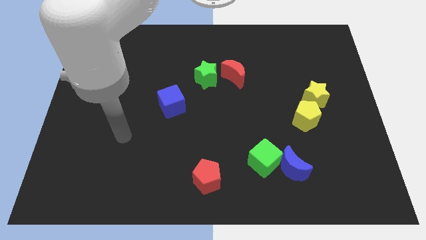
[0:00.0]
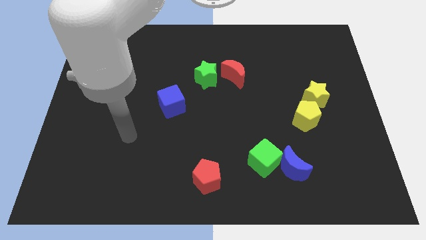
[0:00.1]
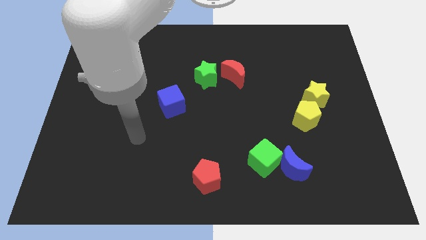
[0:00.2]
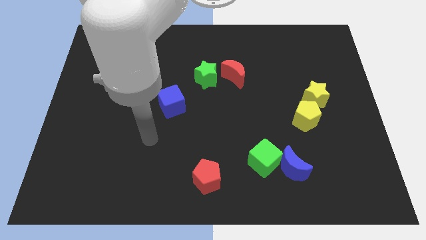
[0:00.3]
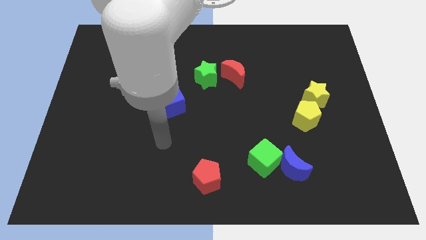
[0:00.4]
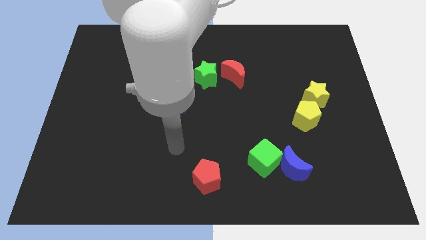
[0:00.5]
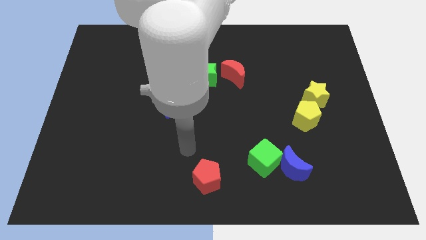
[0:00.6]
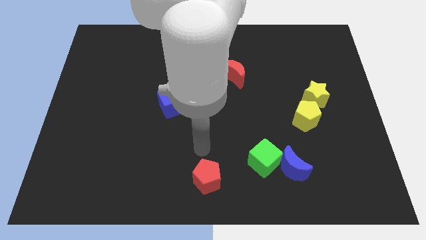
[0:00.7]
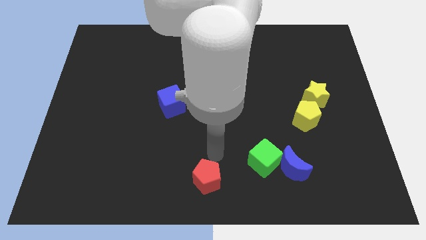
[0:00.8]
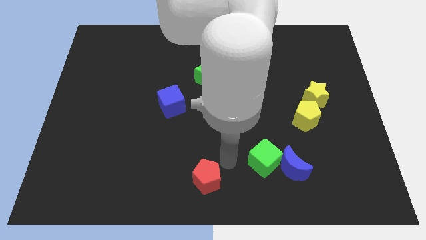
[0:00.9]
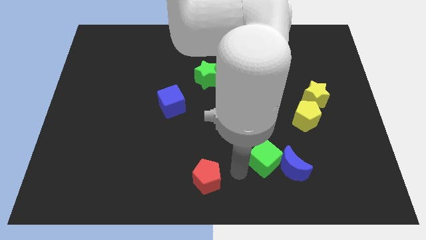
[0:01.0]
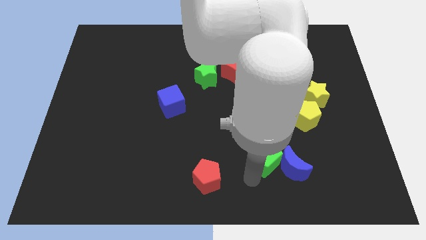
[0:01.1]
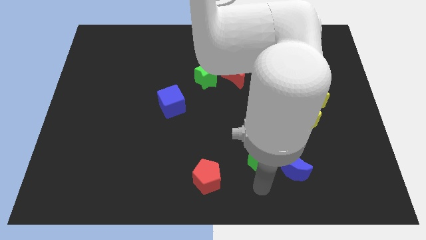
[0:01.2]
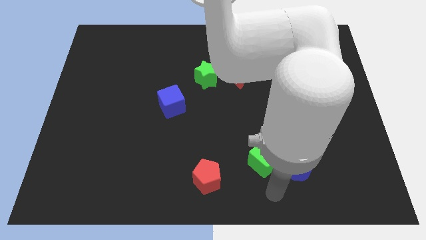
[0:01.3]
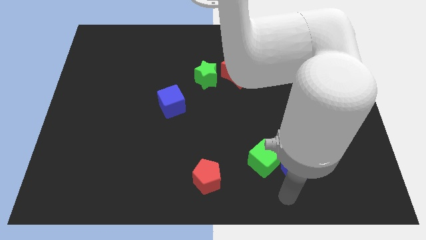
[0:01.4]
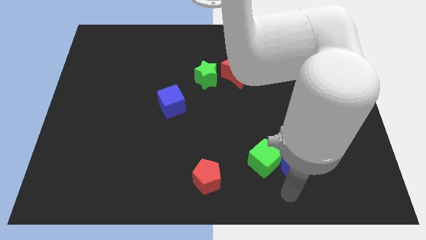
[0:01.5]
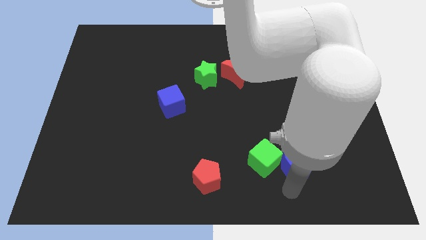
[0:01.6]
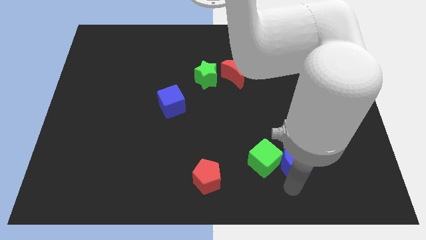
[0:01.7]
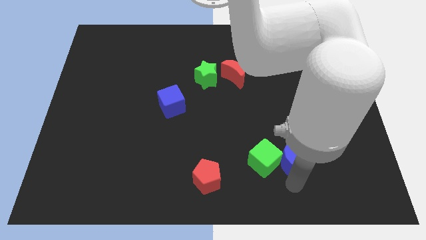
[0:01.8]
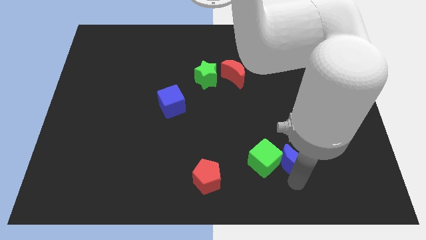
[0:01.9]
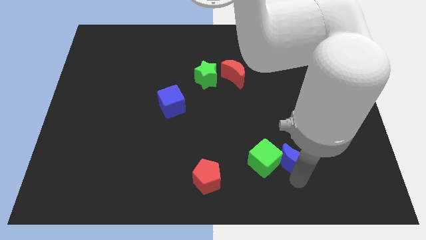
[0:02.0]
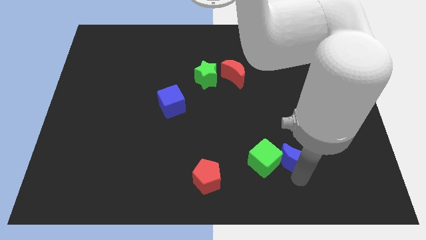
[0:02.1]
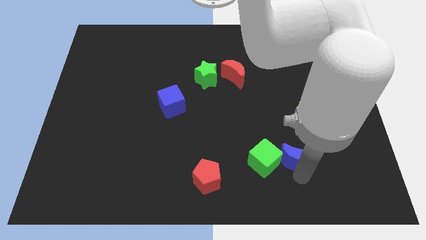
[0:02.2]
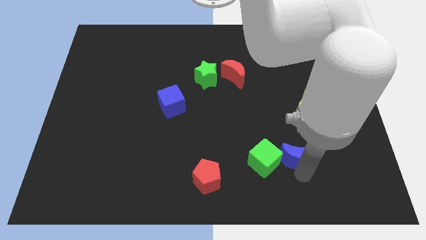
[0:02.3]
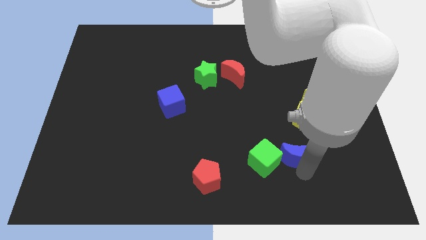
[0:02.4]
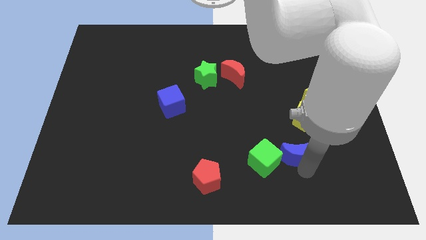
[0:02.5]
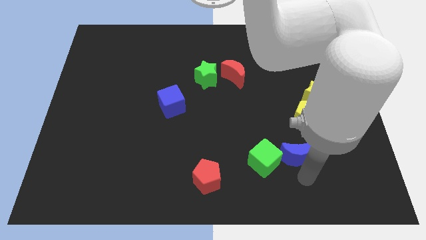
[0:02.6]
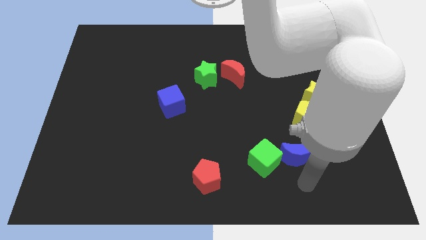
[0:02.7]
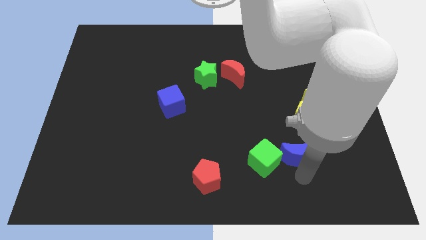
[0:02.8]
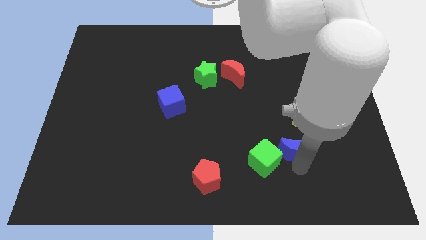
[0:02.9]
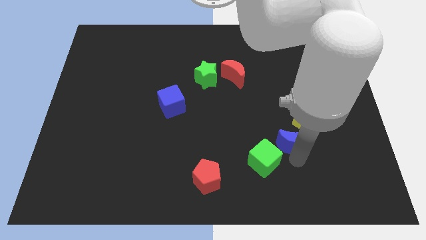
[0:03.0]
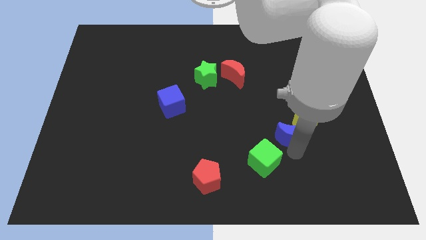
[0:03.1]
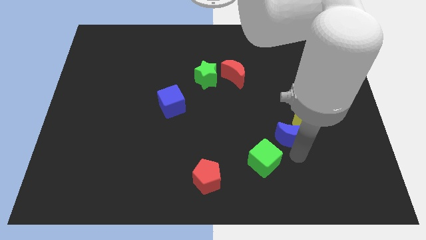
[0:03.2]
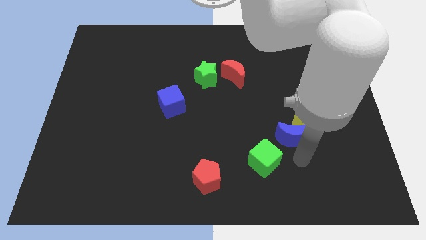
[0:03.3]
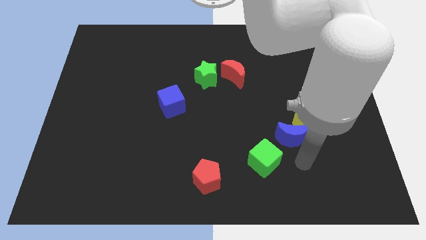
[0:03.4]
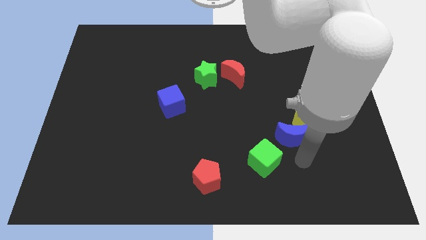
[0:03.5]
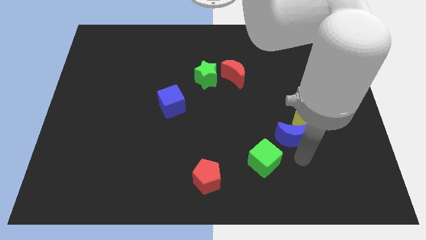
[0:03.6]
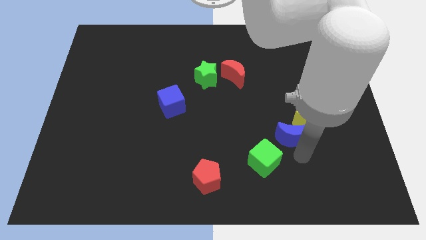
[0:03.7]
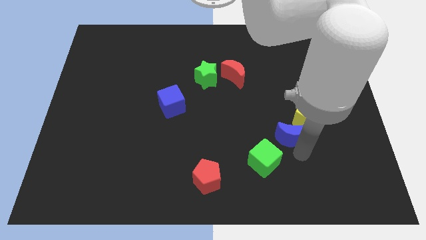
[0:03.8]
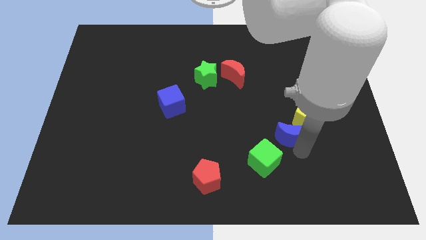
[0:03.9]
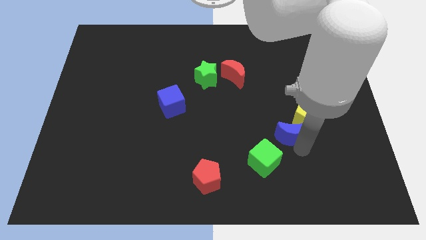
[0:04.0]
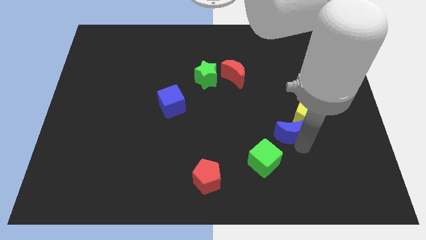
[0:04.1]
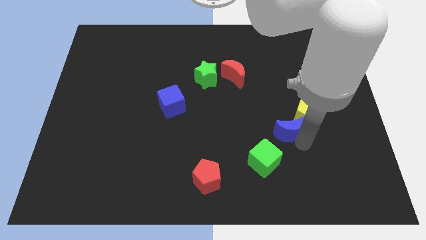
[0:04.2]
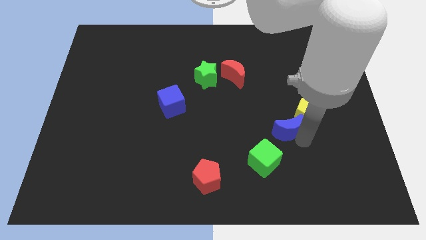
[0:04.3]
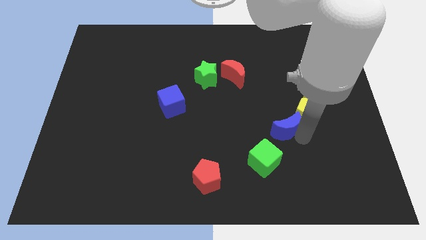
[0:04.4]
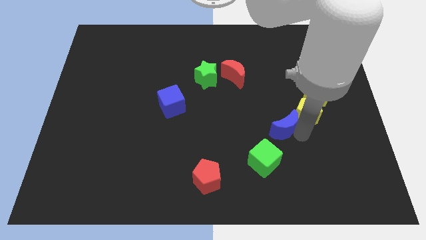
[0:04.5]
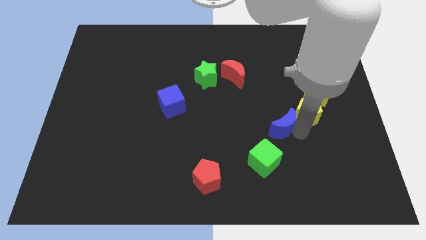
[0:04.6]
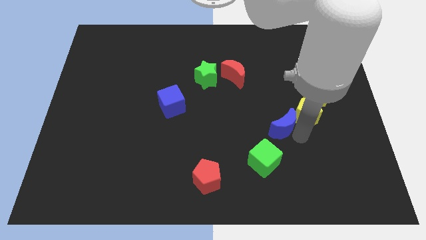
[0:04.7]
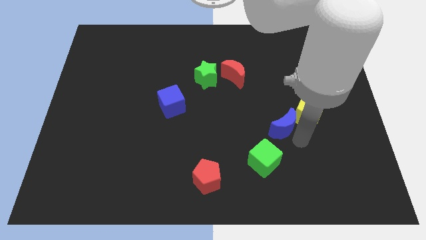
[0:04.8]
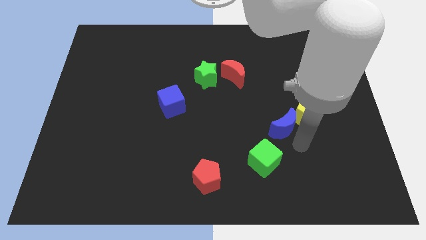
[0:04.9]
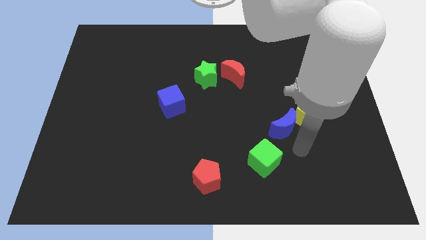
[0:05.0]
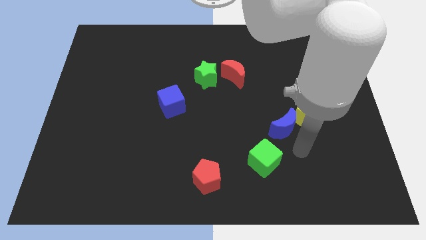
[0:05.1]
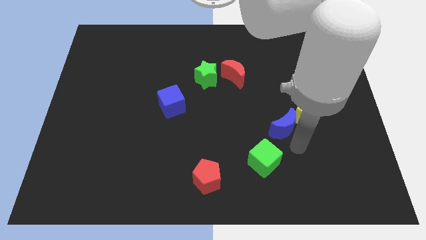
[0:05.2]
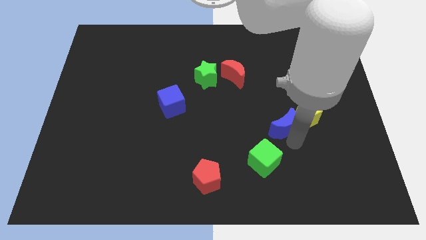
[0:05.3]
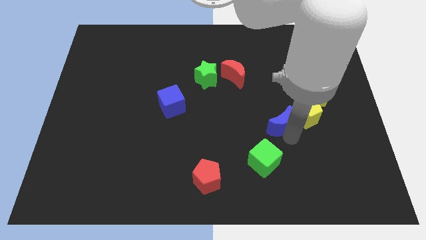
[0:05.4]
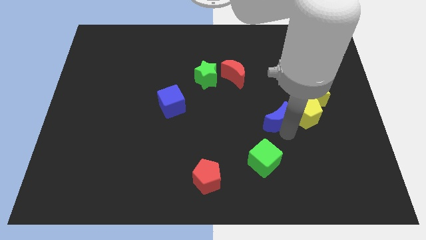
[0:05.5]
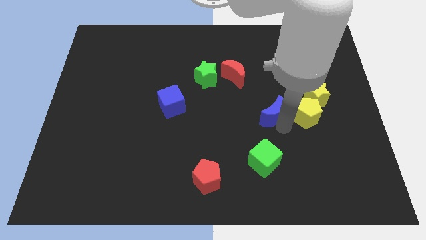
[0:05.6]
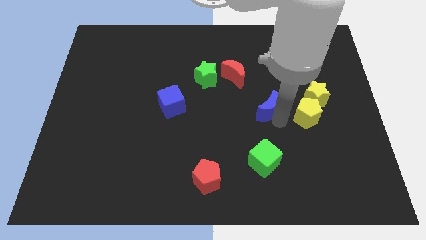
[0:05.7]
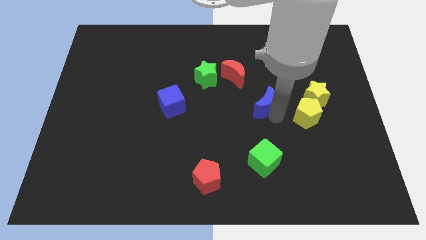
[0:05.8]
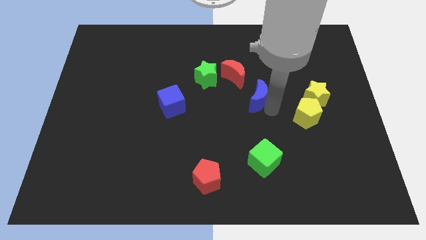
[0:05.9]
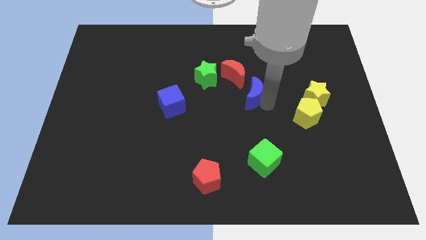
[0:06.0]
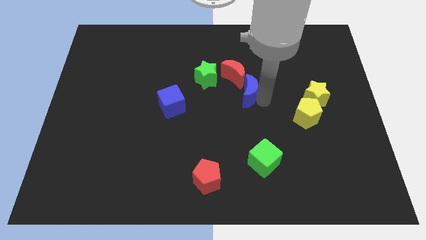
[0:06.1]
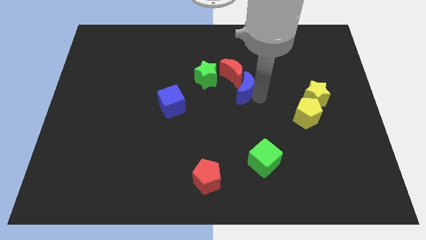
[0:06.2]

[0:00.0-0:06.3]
slide the blue moon towards the red moon

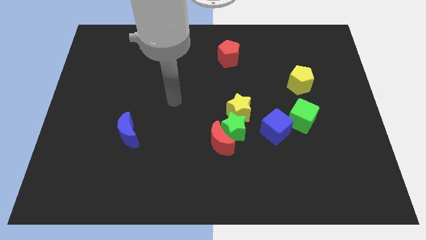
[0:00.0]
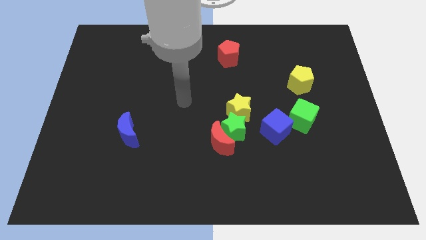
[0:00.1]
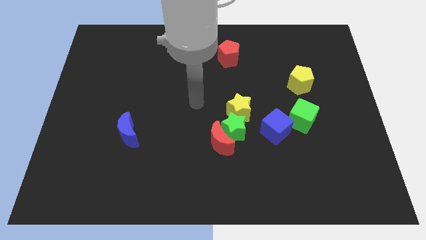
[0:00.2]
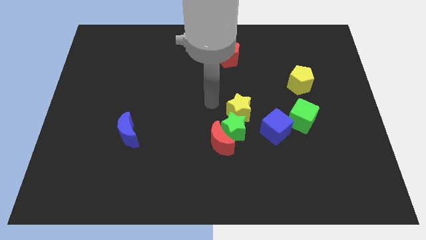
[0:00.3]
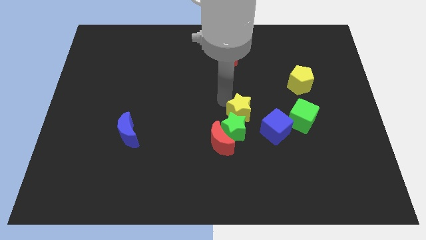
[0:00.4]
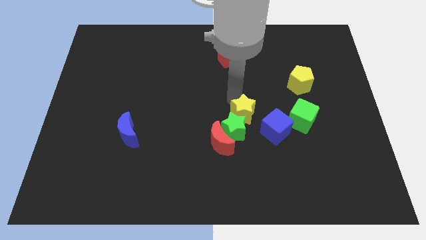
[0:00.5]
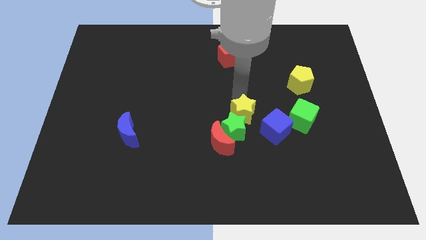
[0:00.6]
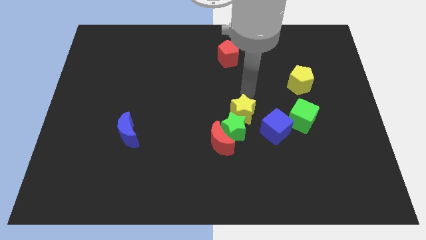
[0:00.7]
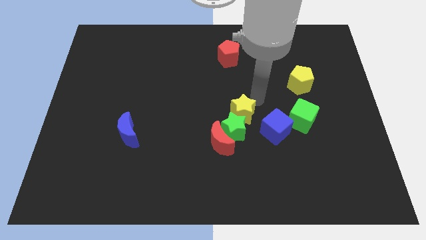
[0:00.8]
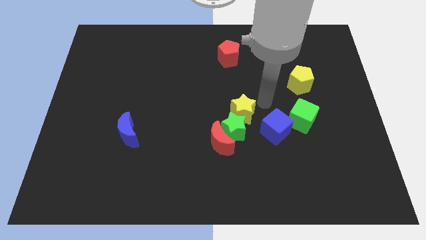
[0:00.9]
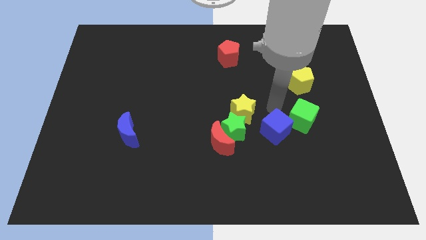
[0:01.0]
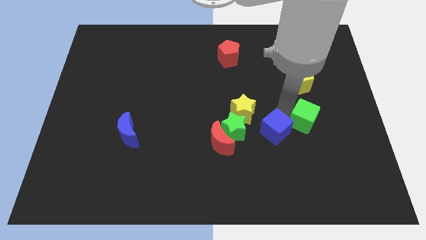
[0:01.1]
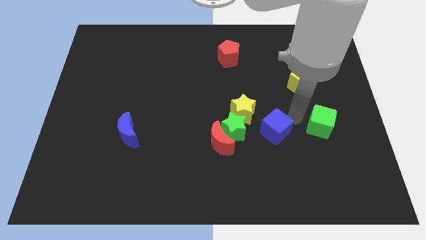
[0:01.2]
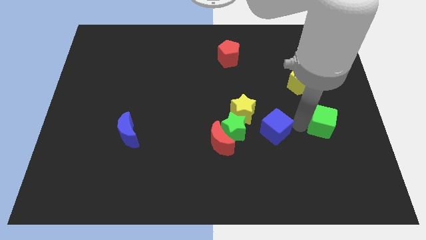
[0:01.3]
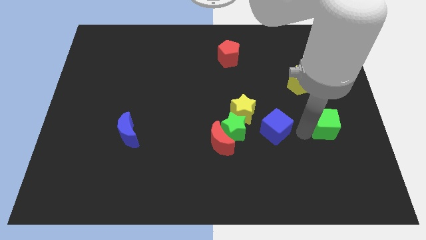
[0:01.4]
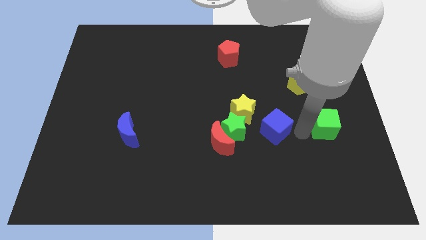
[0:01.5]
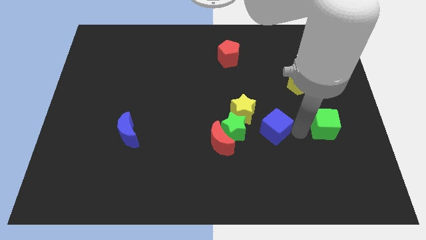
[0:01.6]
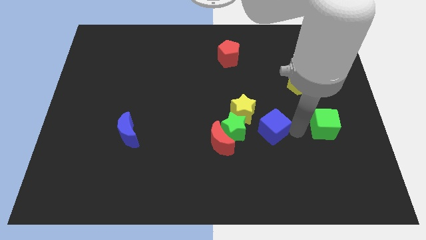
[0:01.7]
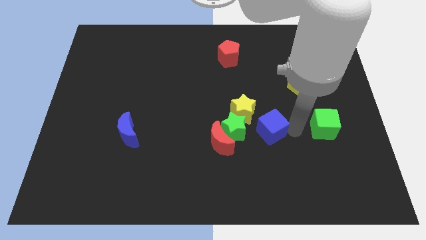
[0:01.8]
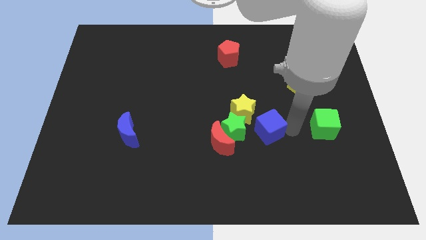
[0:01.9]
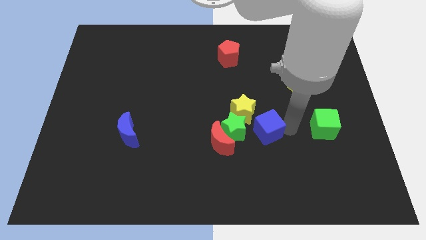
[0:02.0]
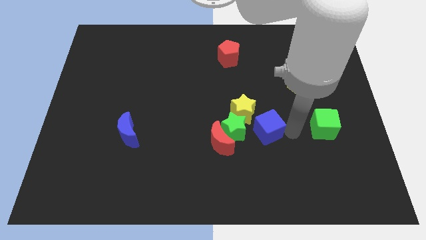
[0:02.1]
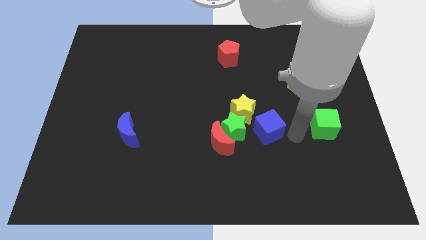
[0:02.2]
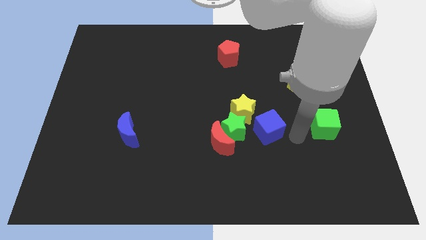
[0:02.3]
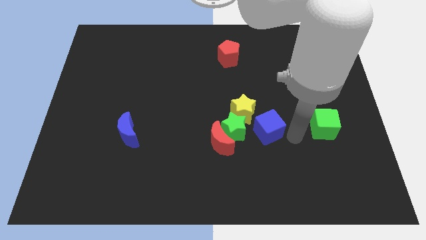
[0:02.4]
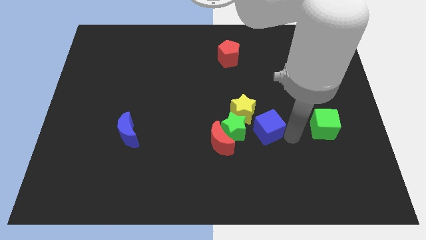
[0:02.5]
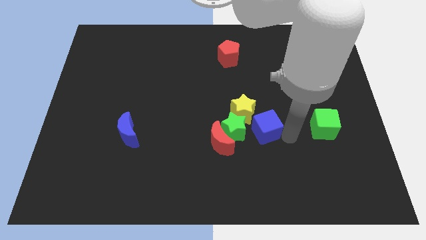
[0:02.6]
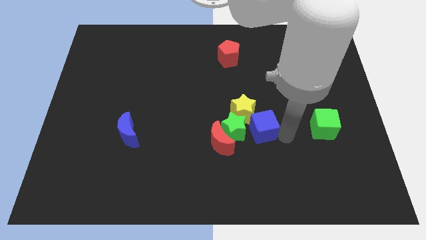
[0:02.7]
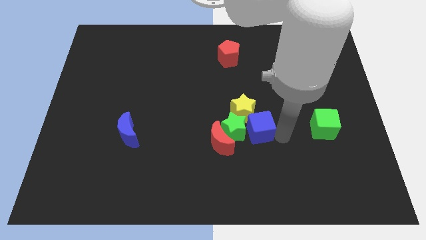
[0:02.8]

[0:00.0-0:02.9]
push the blue cube towards the green star
